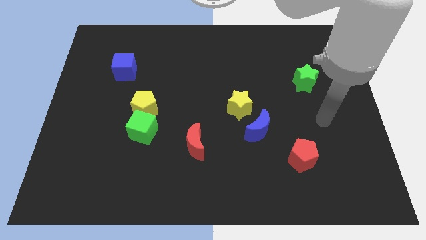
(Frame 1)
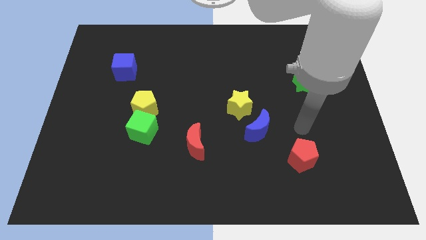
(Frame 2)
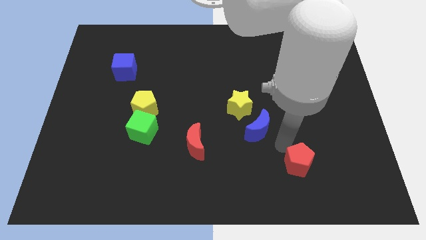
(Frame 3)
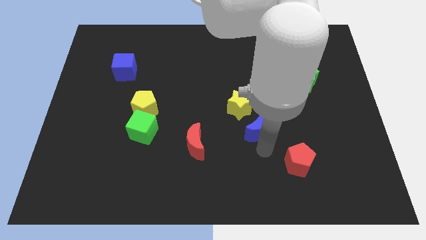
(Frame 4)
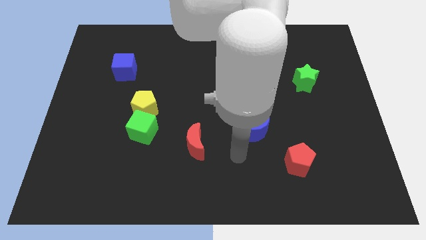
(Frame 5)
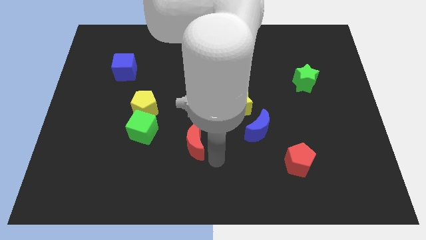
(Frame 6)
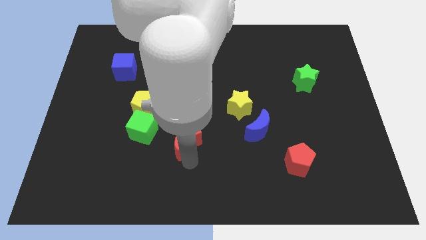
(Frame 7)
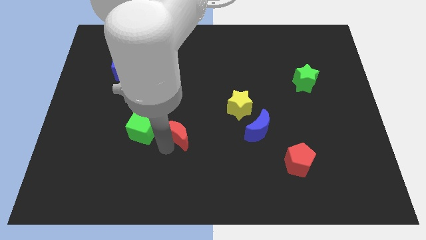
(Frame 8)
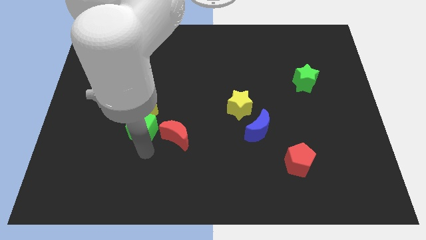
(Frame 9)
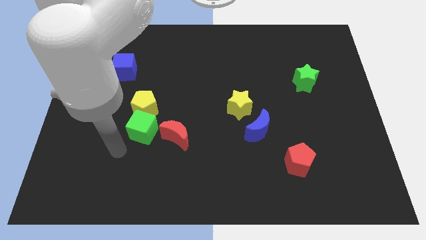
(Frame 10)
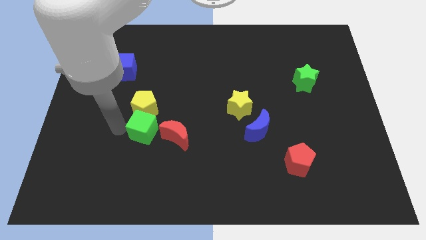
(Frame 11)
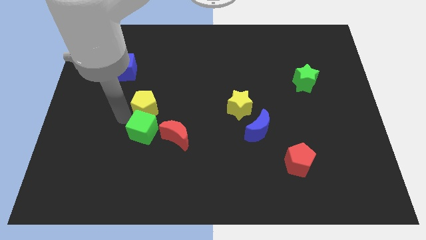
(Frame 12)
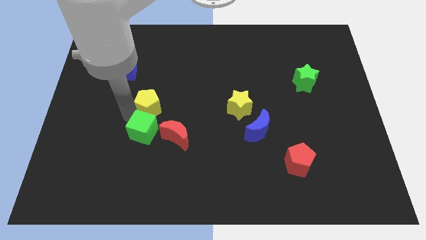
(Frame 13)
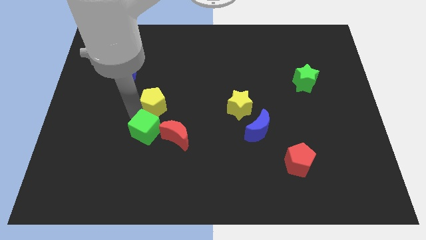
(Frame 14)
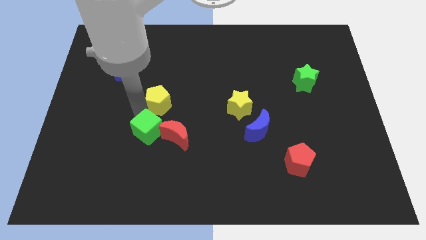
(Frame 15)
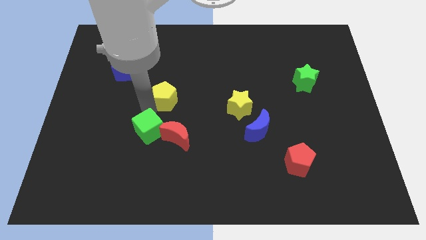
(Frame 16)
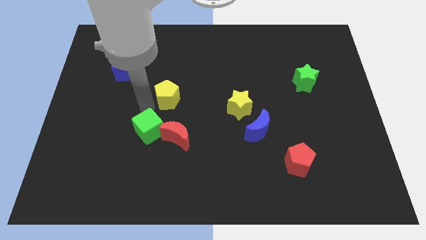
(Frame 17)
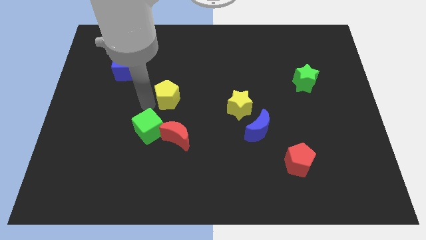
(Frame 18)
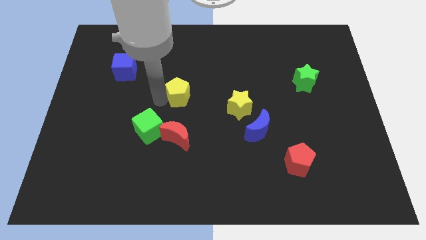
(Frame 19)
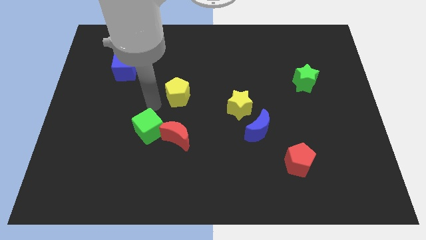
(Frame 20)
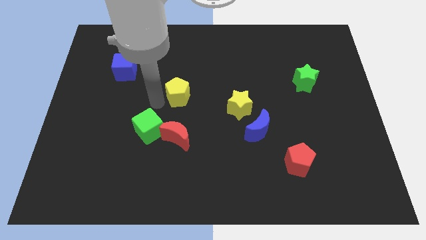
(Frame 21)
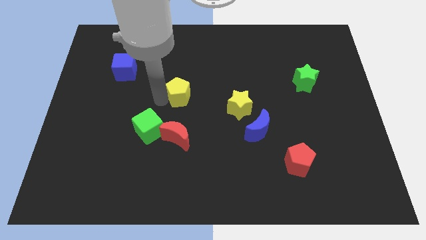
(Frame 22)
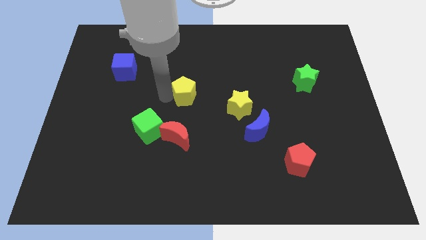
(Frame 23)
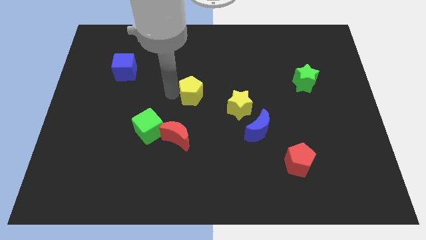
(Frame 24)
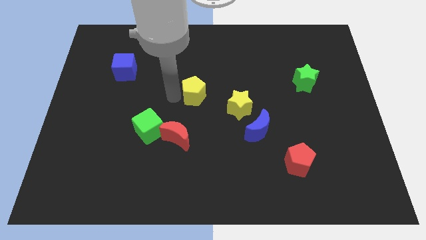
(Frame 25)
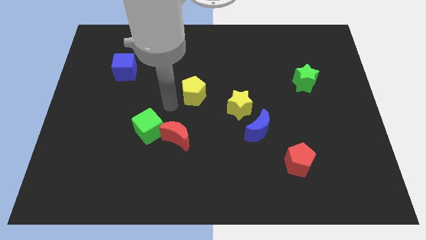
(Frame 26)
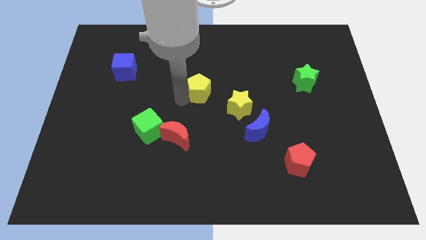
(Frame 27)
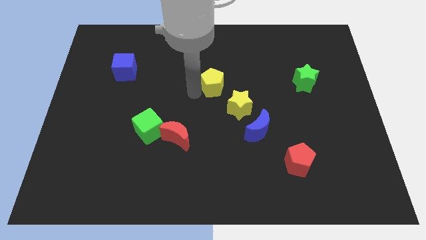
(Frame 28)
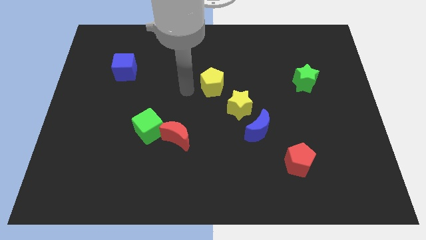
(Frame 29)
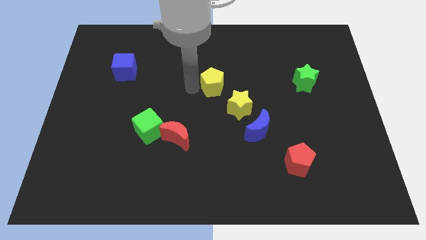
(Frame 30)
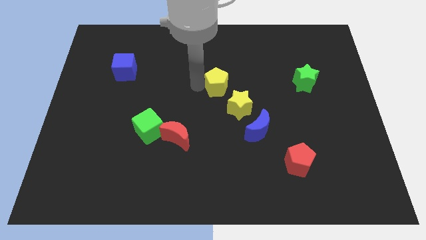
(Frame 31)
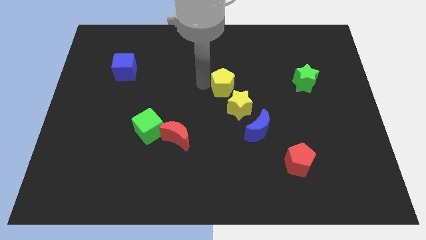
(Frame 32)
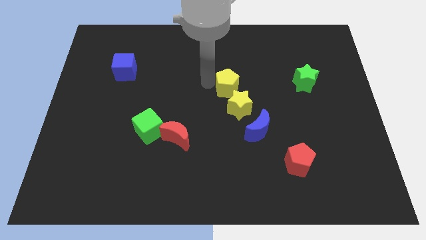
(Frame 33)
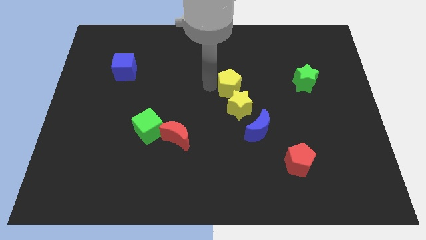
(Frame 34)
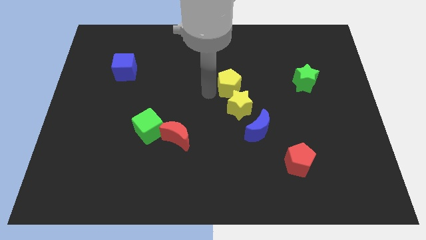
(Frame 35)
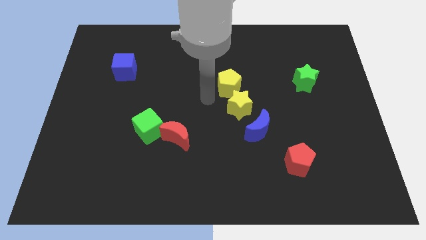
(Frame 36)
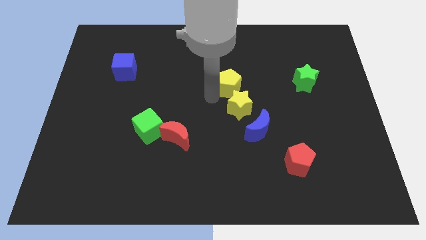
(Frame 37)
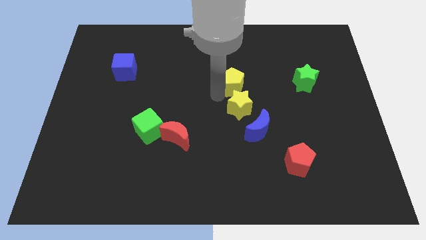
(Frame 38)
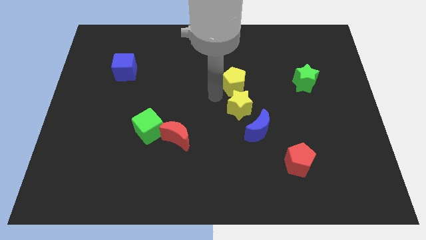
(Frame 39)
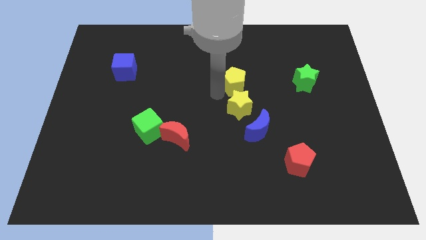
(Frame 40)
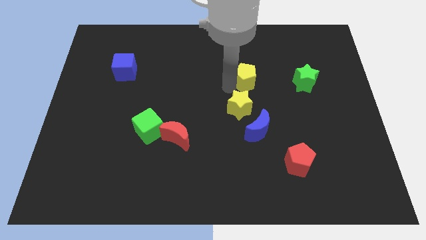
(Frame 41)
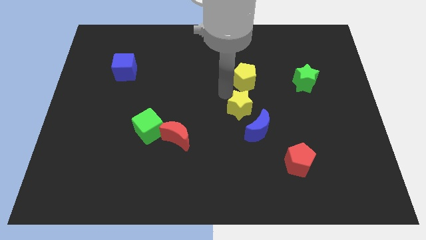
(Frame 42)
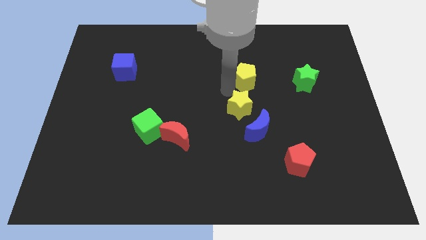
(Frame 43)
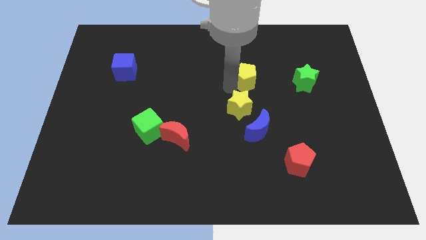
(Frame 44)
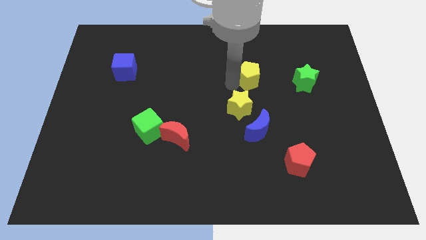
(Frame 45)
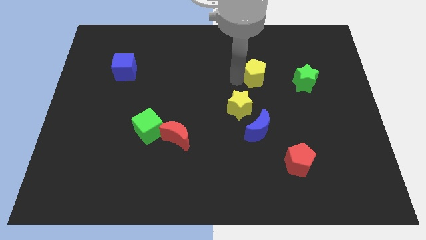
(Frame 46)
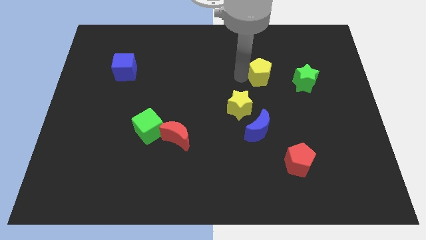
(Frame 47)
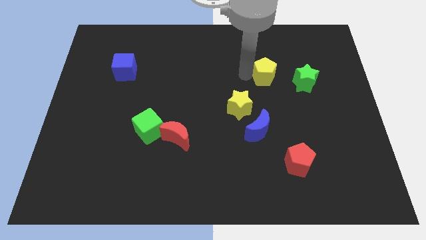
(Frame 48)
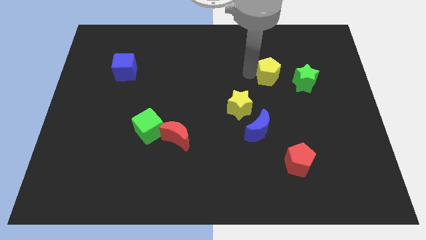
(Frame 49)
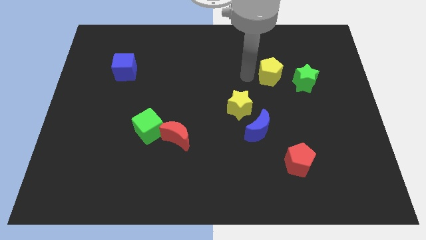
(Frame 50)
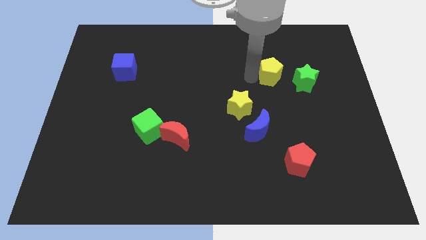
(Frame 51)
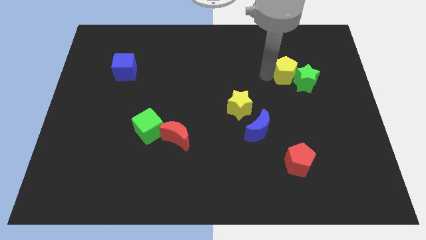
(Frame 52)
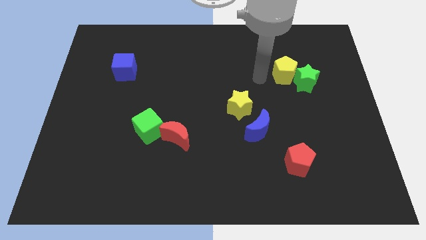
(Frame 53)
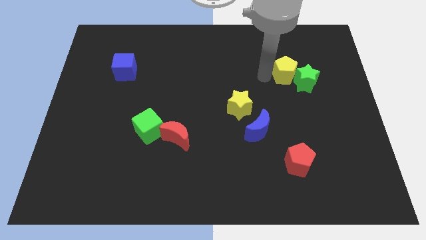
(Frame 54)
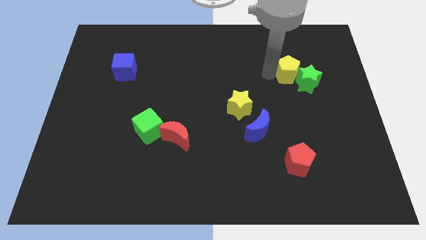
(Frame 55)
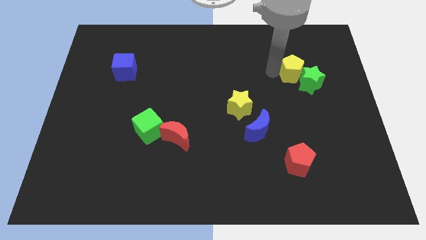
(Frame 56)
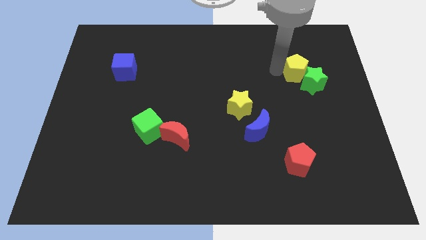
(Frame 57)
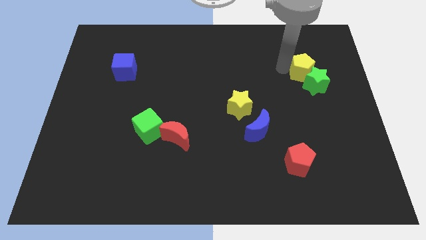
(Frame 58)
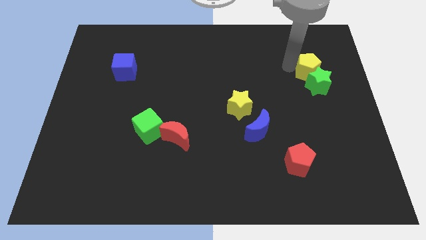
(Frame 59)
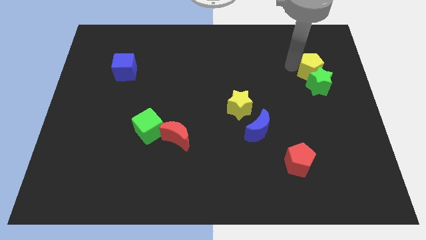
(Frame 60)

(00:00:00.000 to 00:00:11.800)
move the yellow pentagon to the top right side of the green star

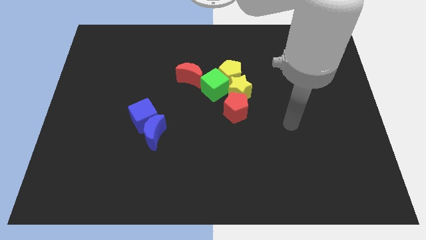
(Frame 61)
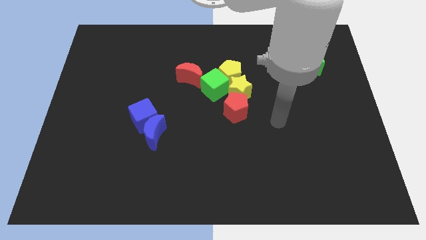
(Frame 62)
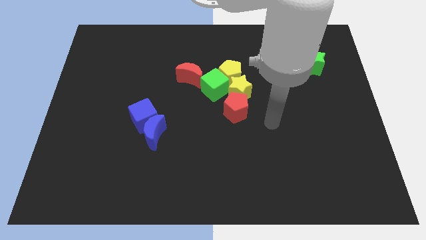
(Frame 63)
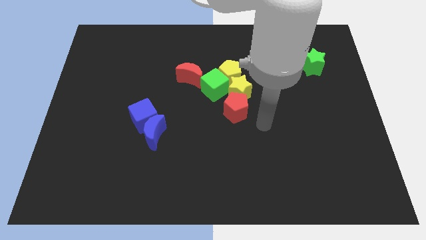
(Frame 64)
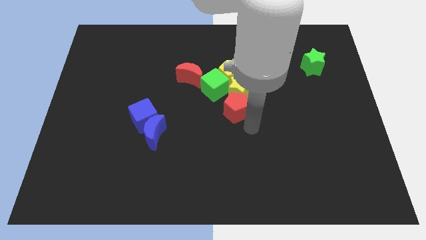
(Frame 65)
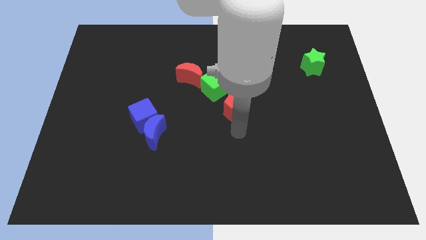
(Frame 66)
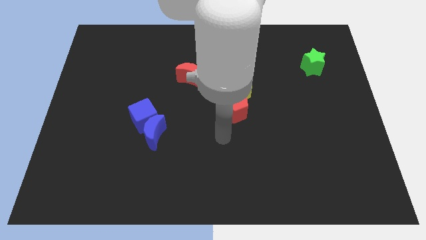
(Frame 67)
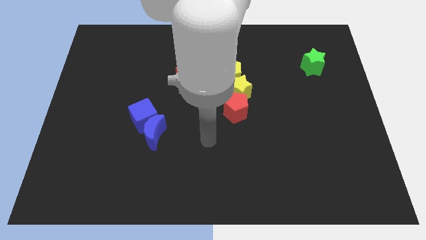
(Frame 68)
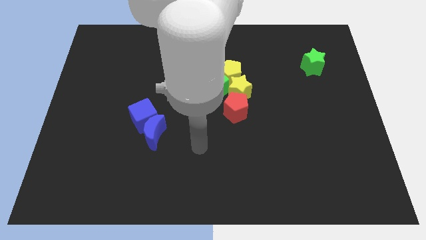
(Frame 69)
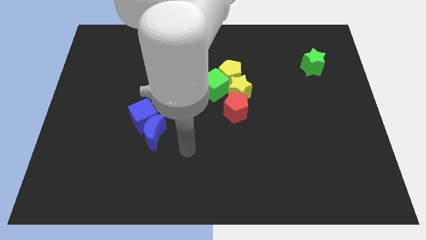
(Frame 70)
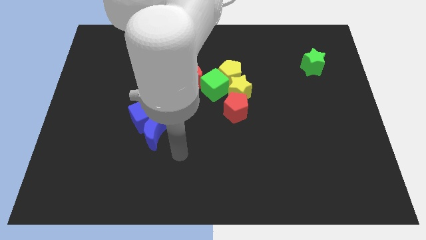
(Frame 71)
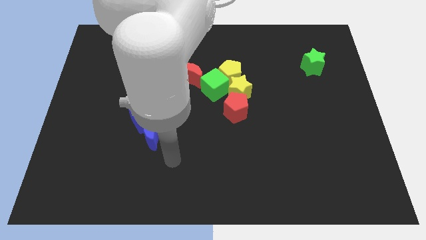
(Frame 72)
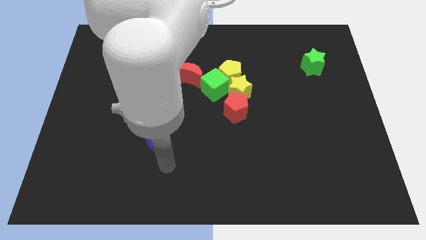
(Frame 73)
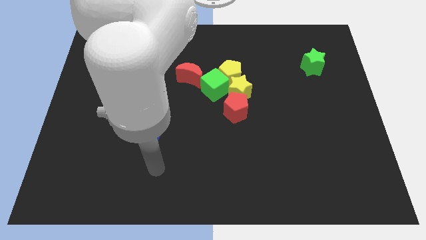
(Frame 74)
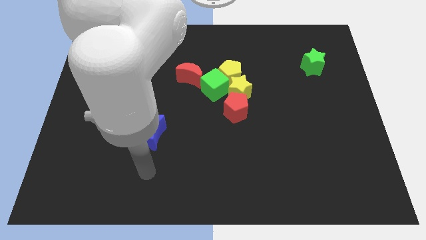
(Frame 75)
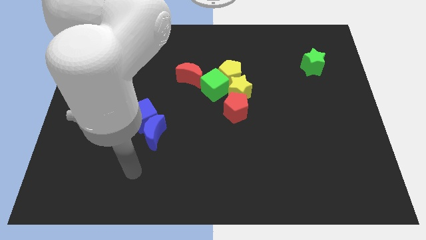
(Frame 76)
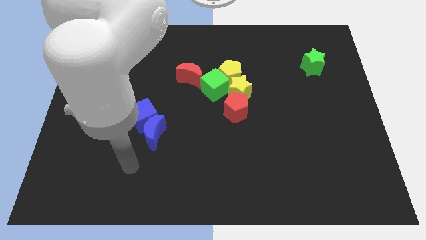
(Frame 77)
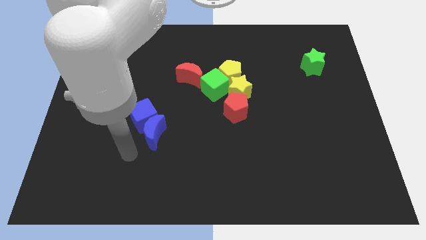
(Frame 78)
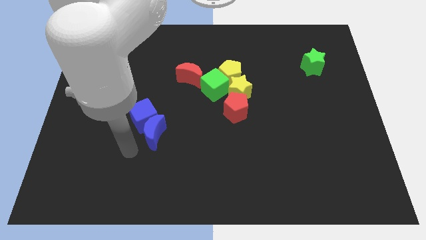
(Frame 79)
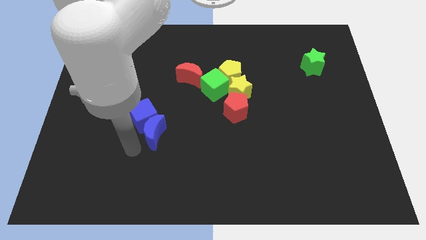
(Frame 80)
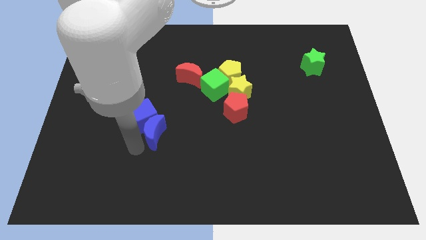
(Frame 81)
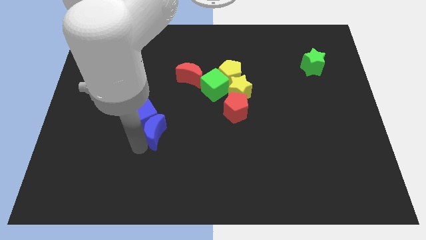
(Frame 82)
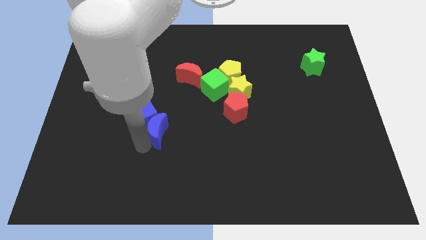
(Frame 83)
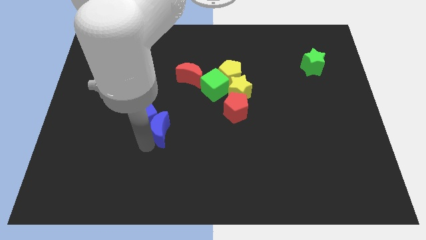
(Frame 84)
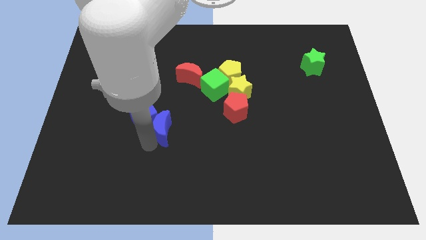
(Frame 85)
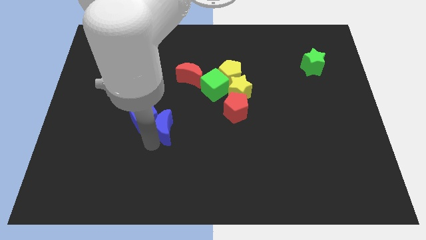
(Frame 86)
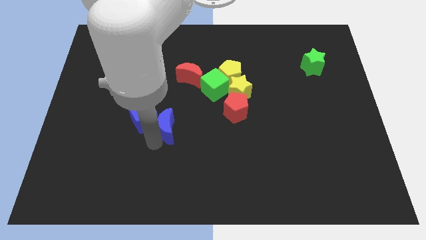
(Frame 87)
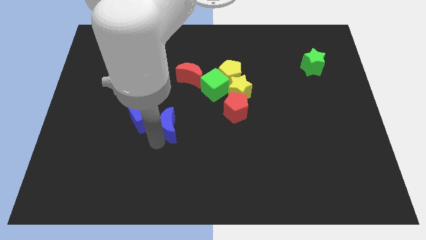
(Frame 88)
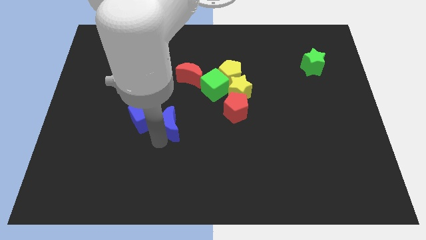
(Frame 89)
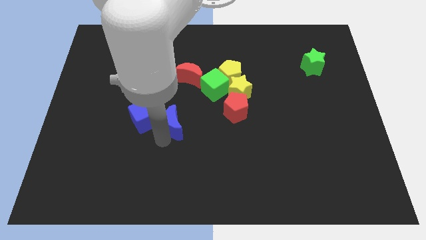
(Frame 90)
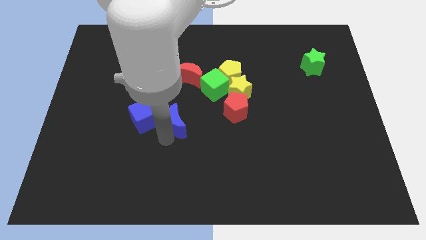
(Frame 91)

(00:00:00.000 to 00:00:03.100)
slide the blue moon to the left side of the red pentagon
